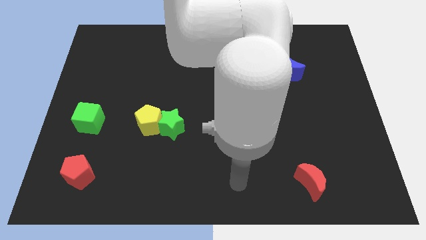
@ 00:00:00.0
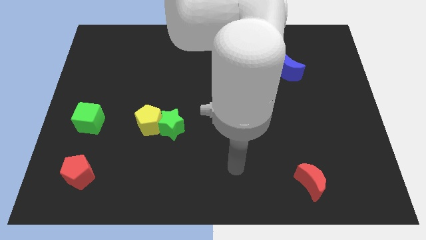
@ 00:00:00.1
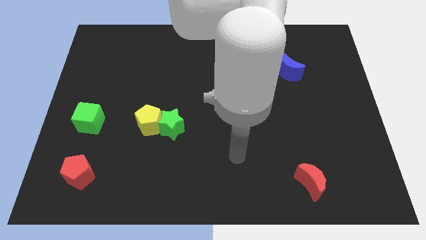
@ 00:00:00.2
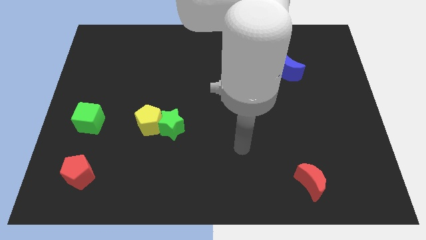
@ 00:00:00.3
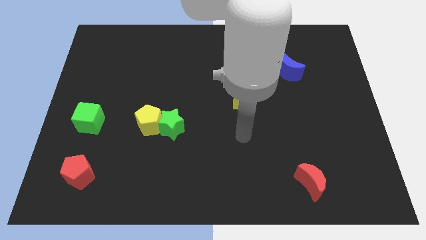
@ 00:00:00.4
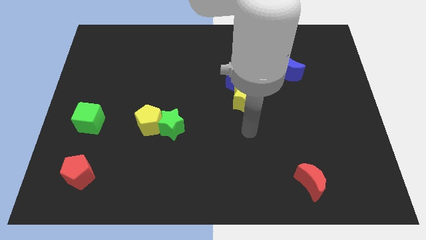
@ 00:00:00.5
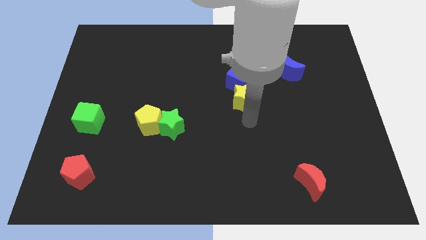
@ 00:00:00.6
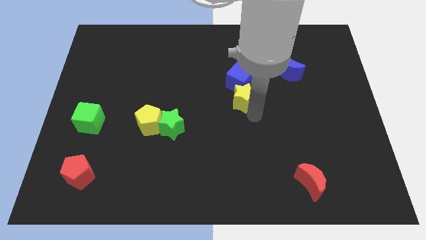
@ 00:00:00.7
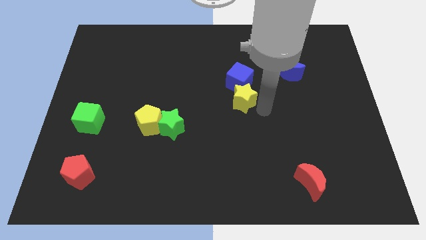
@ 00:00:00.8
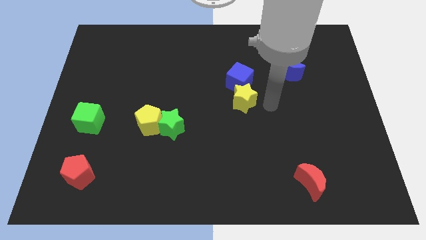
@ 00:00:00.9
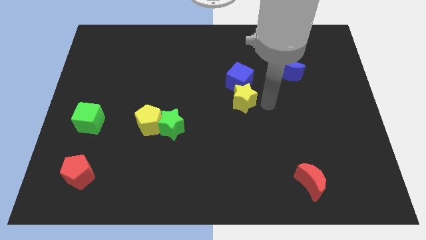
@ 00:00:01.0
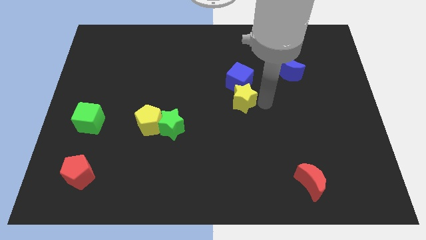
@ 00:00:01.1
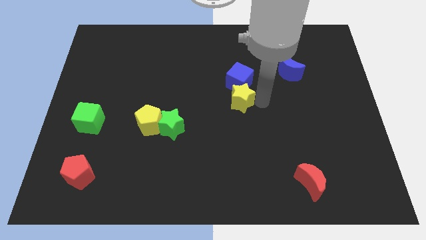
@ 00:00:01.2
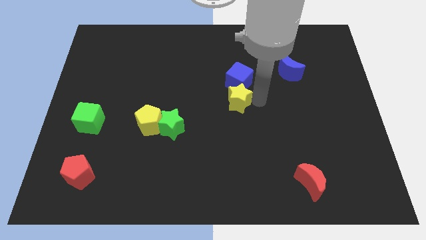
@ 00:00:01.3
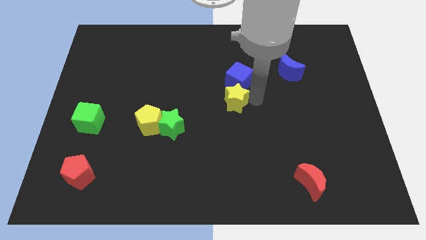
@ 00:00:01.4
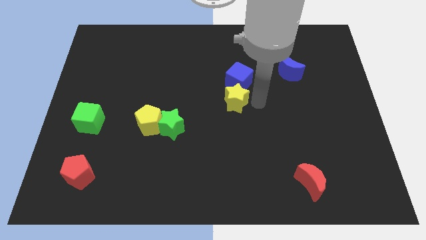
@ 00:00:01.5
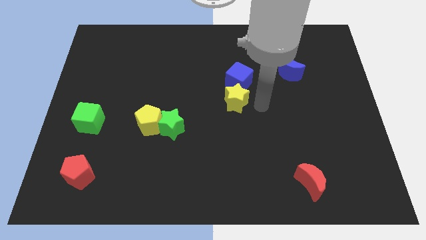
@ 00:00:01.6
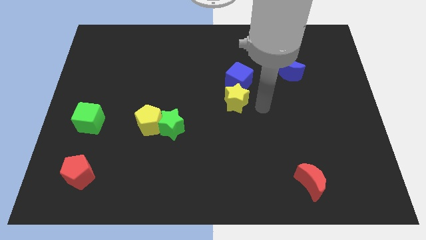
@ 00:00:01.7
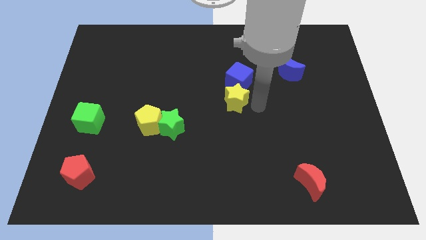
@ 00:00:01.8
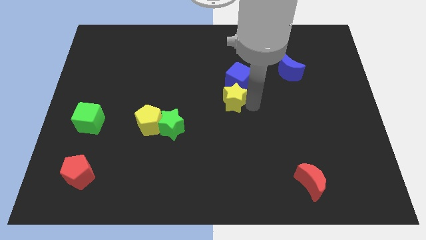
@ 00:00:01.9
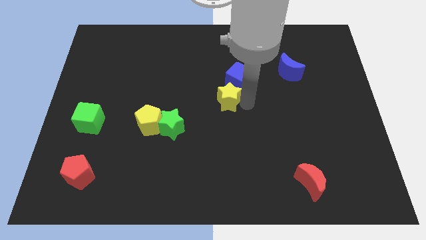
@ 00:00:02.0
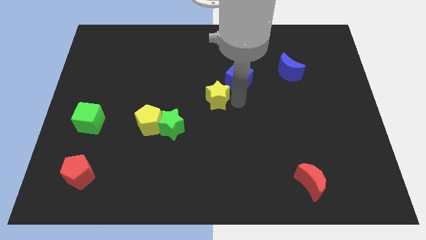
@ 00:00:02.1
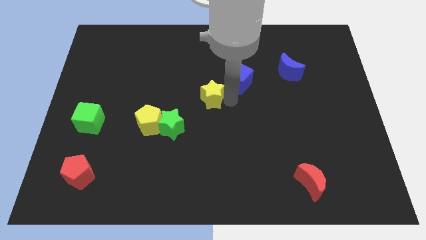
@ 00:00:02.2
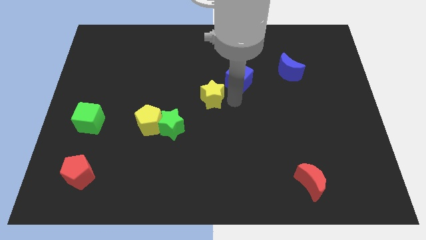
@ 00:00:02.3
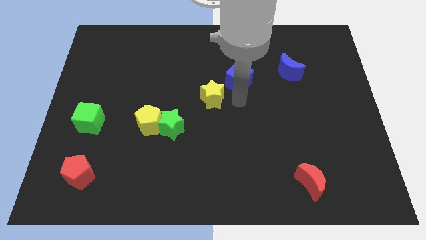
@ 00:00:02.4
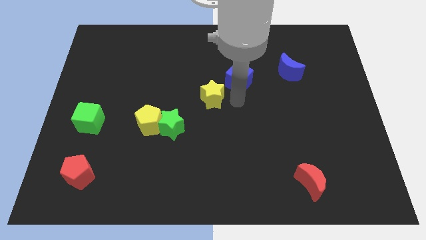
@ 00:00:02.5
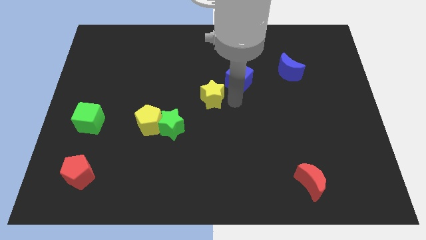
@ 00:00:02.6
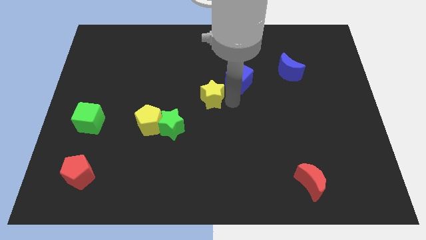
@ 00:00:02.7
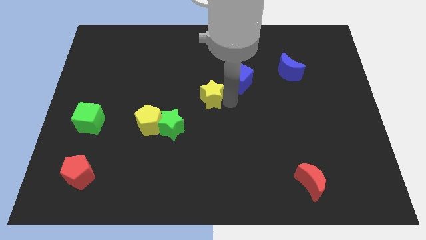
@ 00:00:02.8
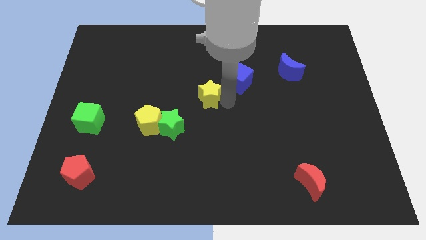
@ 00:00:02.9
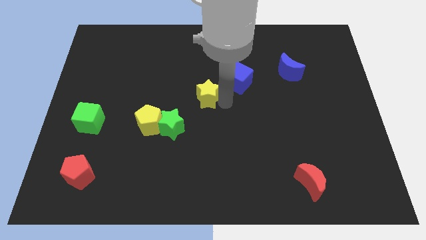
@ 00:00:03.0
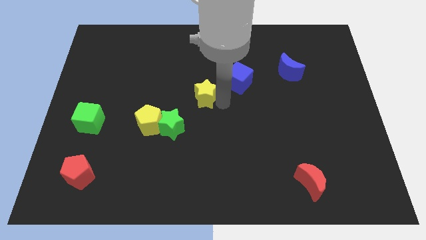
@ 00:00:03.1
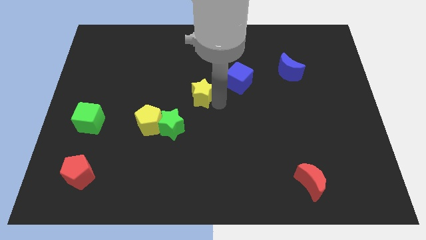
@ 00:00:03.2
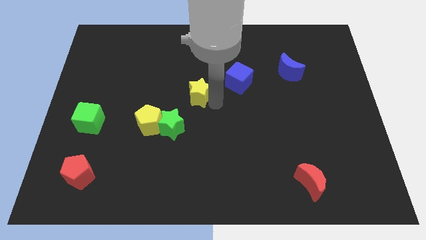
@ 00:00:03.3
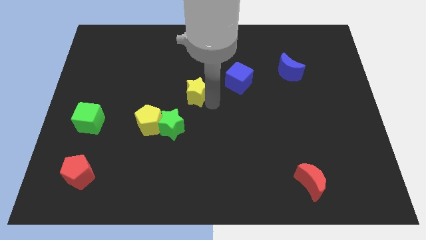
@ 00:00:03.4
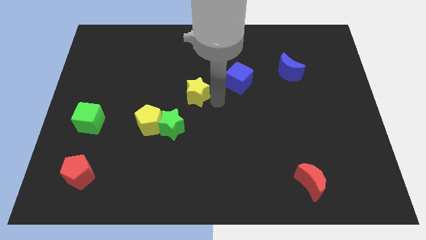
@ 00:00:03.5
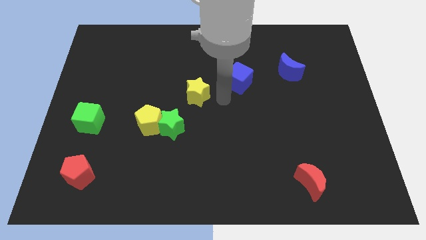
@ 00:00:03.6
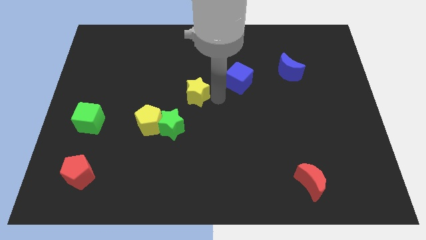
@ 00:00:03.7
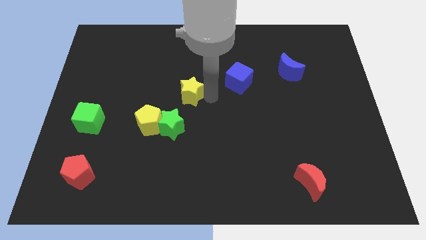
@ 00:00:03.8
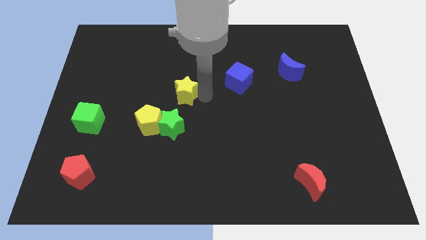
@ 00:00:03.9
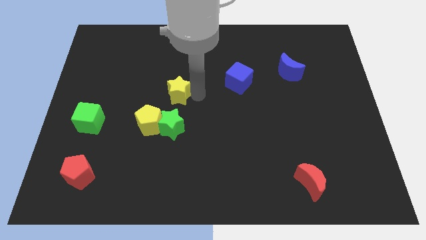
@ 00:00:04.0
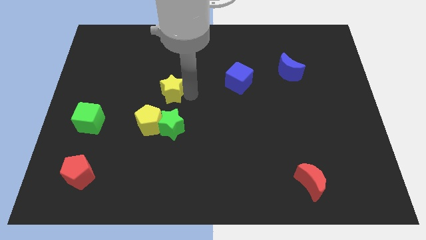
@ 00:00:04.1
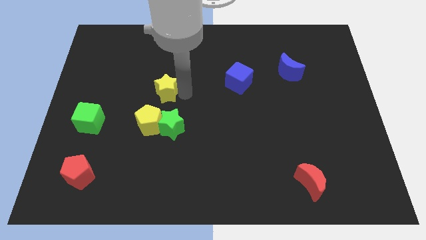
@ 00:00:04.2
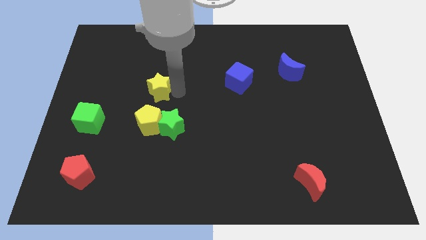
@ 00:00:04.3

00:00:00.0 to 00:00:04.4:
move the yellow star left

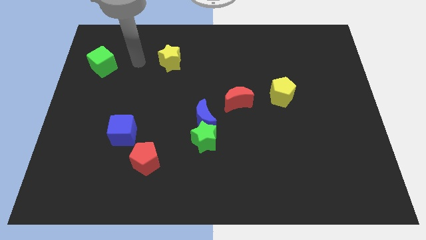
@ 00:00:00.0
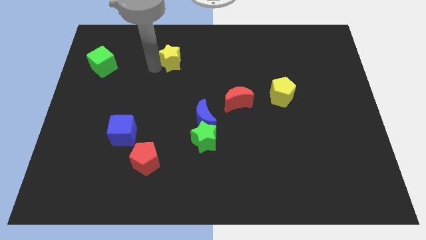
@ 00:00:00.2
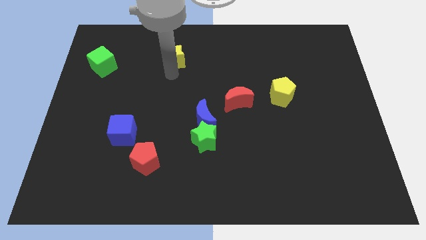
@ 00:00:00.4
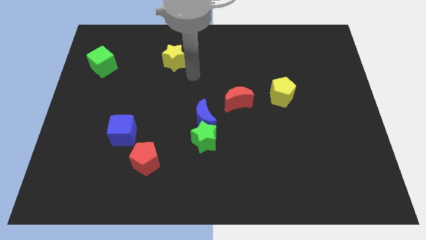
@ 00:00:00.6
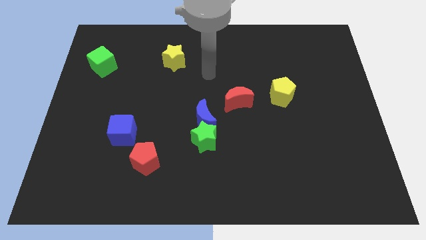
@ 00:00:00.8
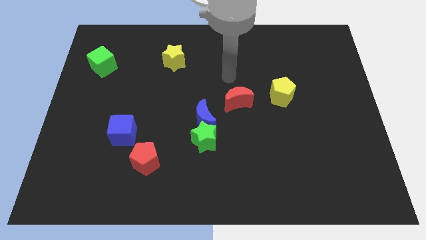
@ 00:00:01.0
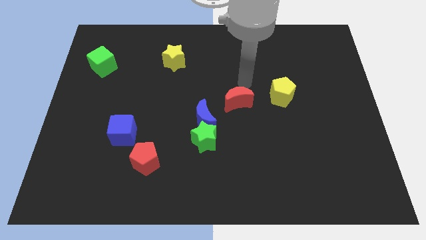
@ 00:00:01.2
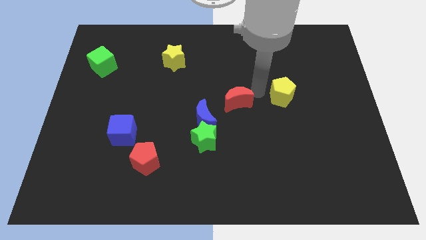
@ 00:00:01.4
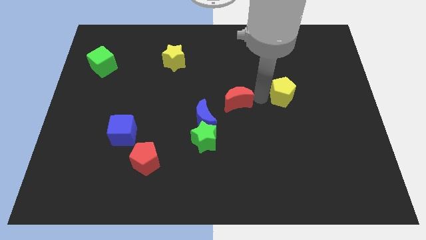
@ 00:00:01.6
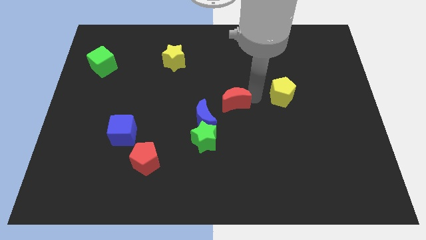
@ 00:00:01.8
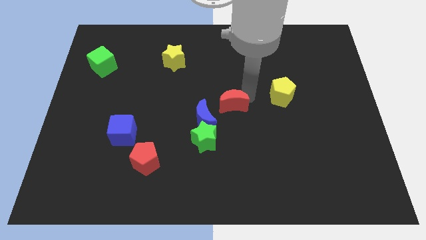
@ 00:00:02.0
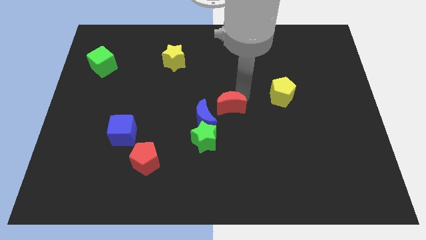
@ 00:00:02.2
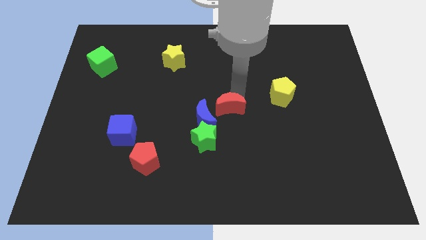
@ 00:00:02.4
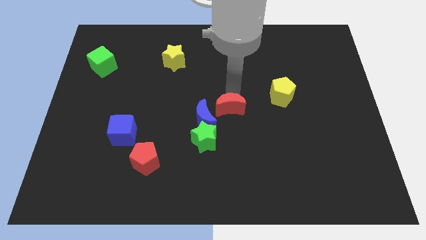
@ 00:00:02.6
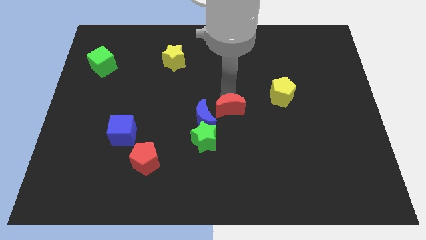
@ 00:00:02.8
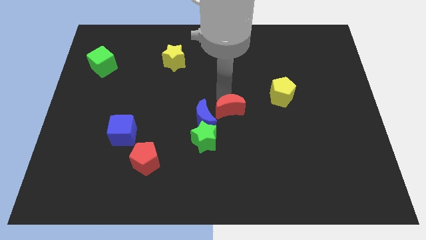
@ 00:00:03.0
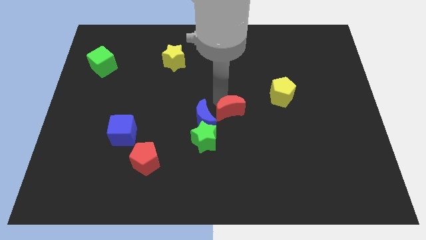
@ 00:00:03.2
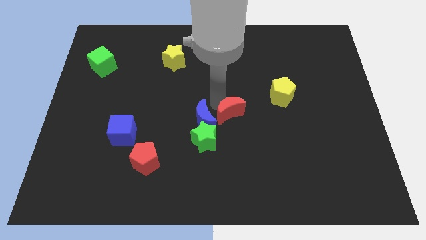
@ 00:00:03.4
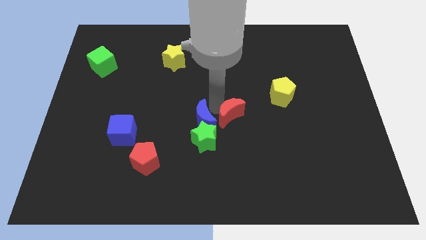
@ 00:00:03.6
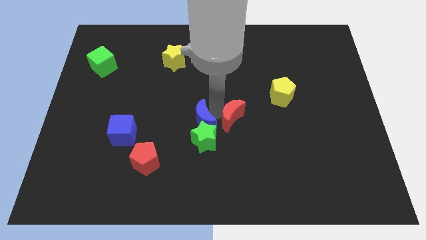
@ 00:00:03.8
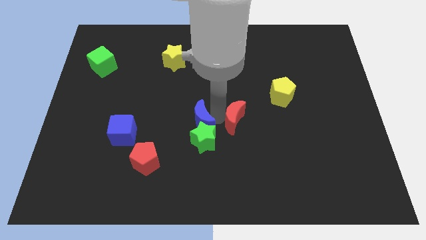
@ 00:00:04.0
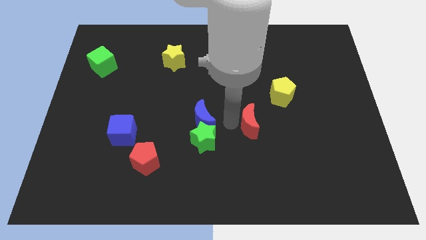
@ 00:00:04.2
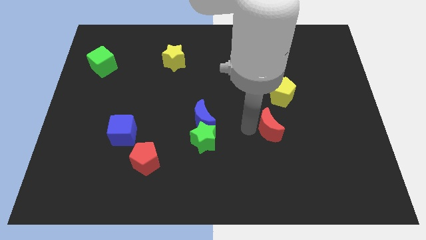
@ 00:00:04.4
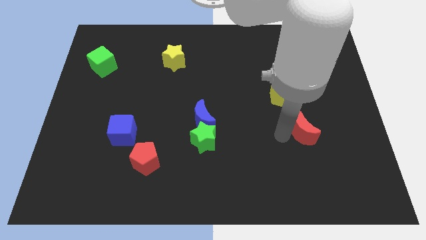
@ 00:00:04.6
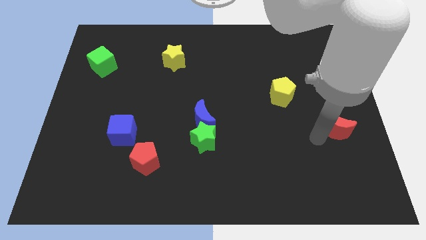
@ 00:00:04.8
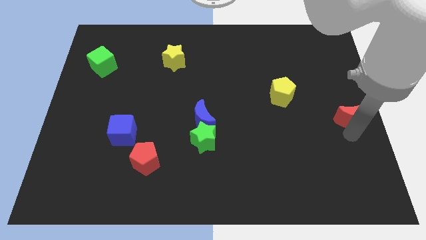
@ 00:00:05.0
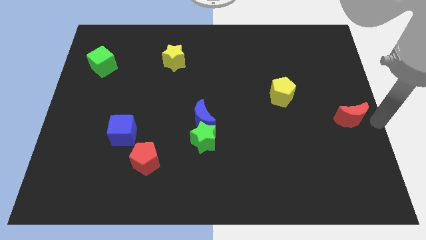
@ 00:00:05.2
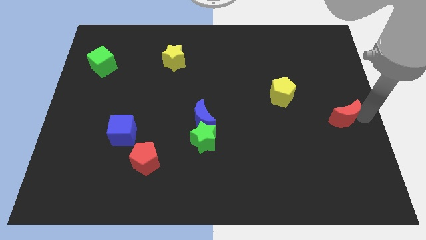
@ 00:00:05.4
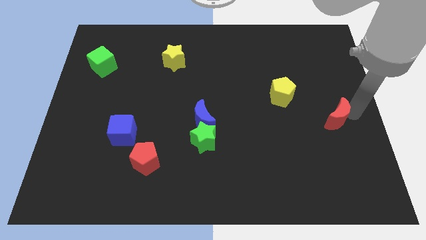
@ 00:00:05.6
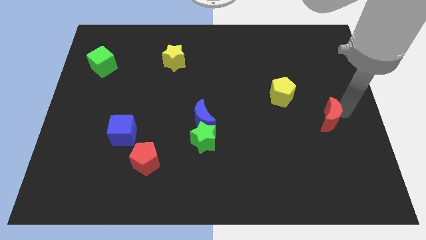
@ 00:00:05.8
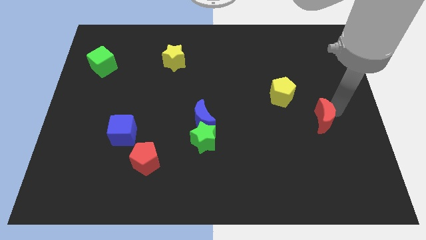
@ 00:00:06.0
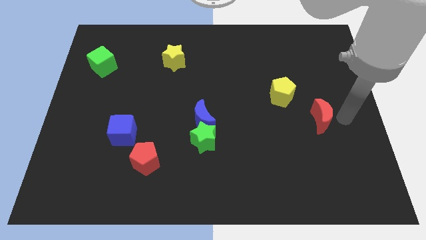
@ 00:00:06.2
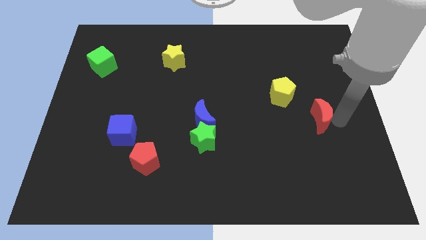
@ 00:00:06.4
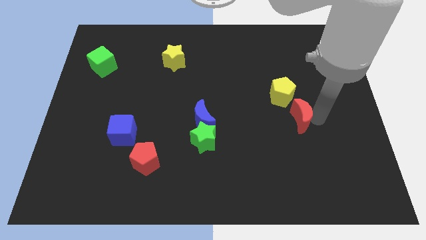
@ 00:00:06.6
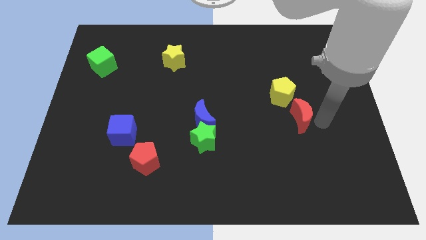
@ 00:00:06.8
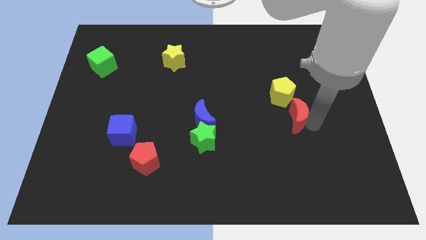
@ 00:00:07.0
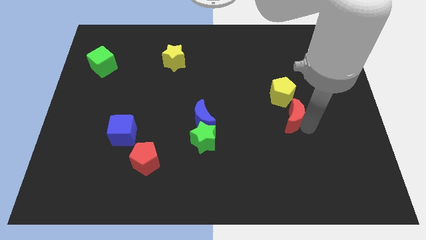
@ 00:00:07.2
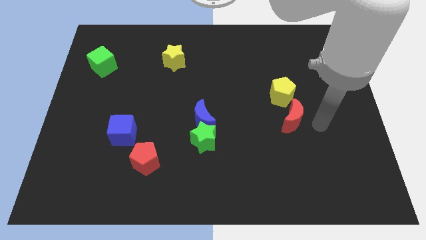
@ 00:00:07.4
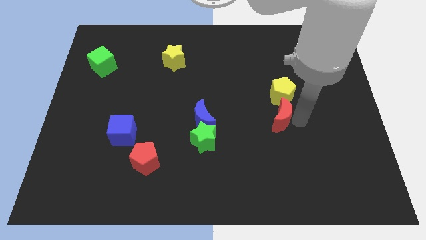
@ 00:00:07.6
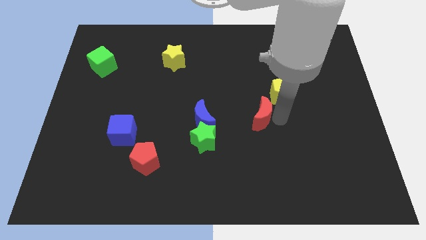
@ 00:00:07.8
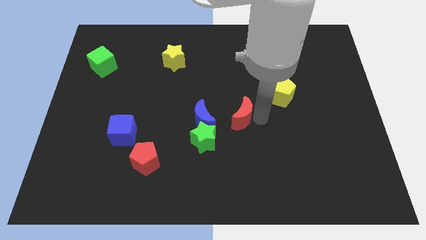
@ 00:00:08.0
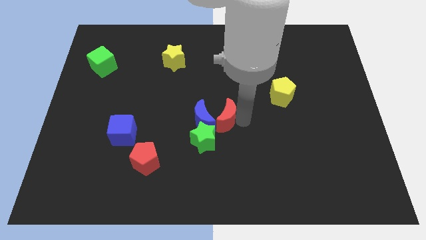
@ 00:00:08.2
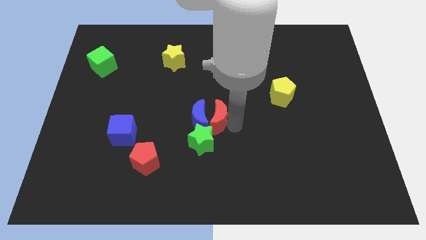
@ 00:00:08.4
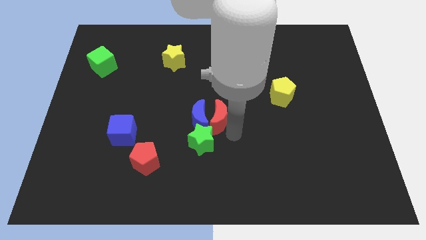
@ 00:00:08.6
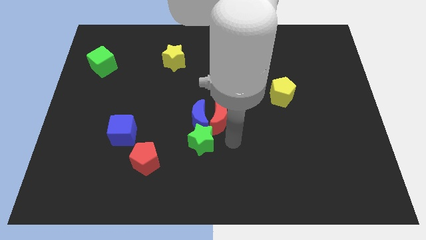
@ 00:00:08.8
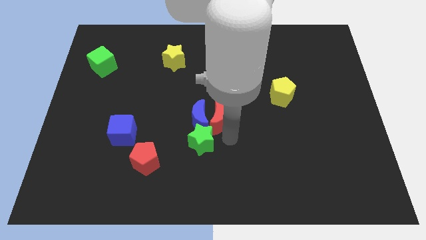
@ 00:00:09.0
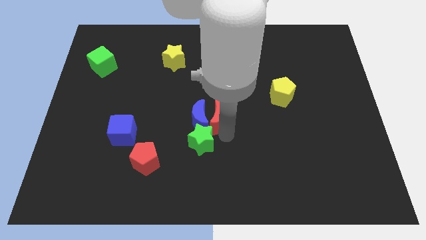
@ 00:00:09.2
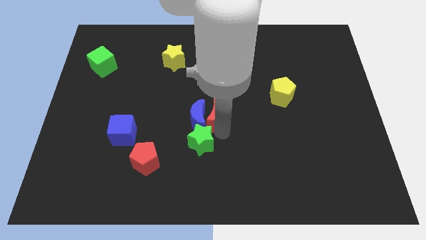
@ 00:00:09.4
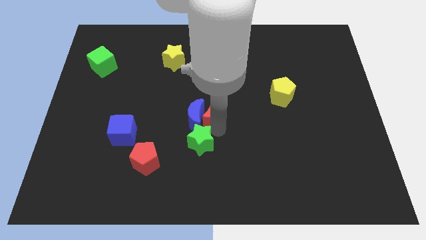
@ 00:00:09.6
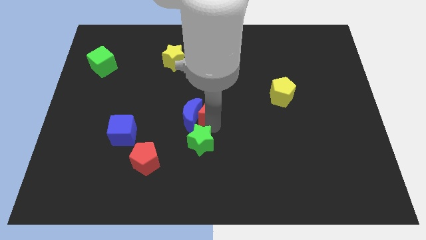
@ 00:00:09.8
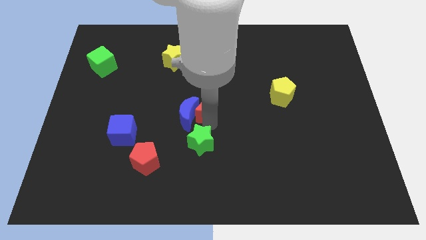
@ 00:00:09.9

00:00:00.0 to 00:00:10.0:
slide the red moon left somewhat
